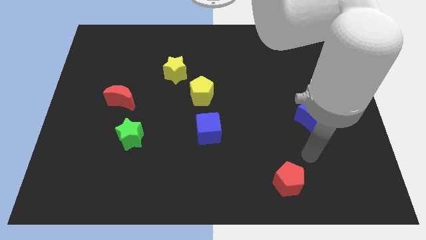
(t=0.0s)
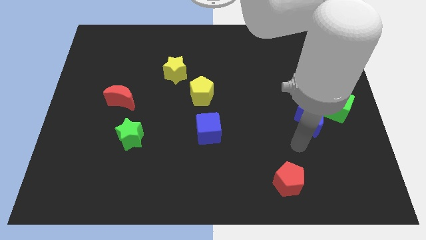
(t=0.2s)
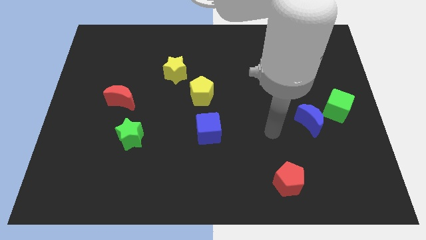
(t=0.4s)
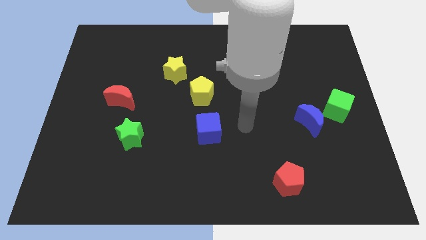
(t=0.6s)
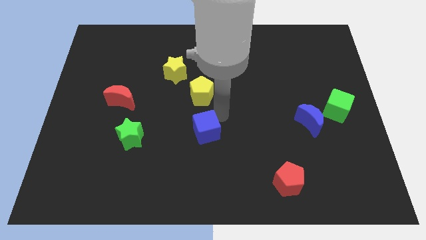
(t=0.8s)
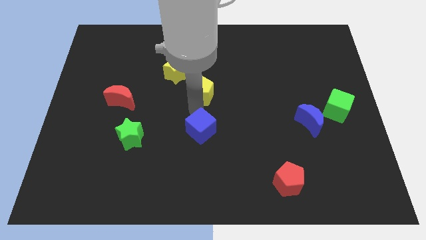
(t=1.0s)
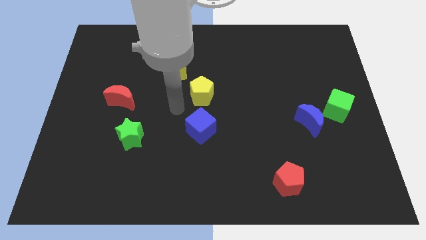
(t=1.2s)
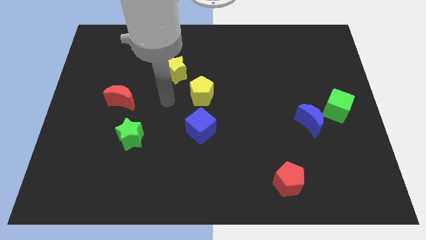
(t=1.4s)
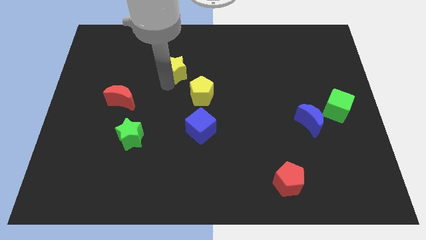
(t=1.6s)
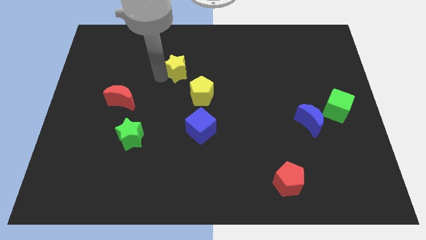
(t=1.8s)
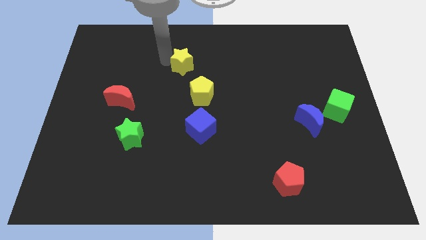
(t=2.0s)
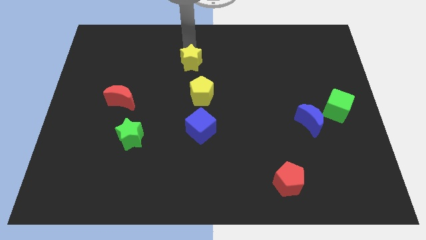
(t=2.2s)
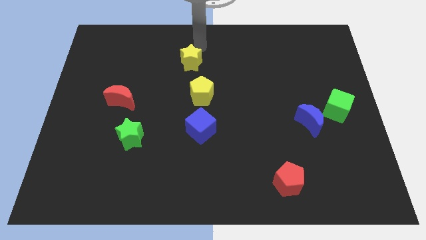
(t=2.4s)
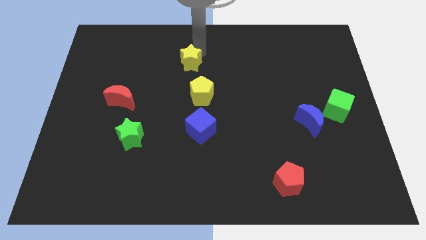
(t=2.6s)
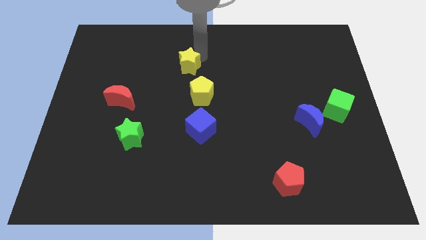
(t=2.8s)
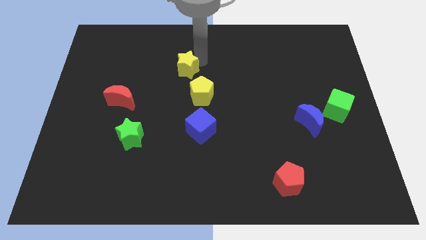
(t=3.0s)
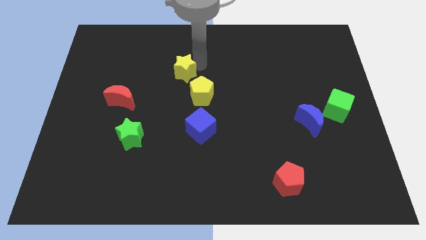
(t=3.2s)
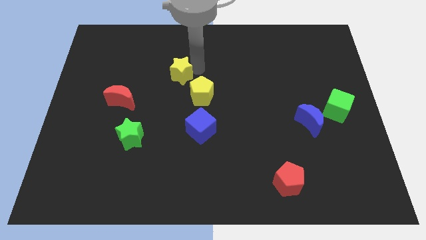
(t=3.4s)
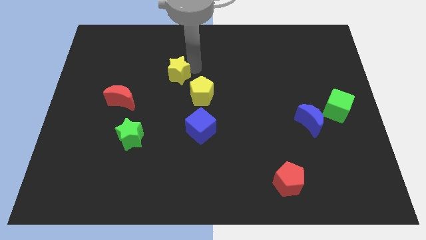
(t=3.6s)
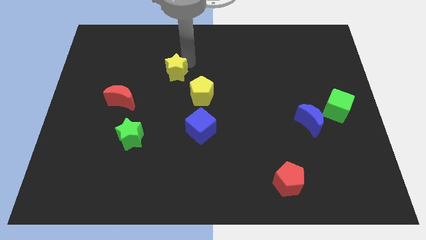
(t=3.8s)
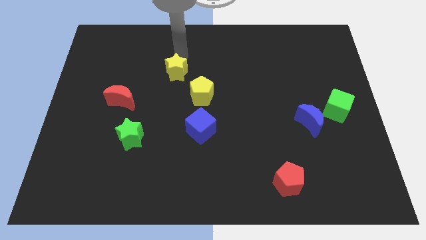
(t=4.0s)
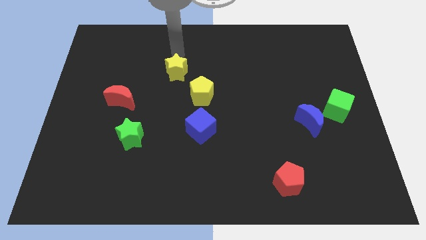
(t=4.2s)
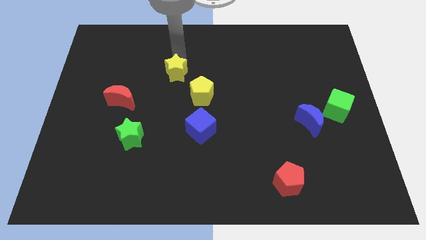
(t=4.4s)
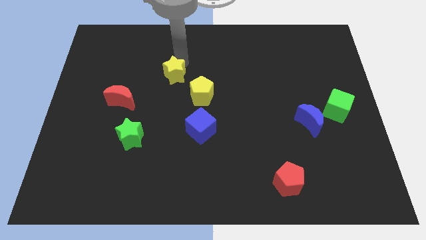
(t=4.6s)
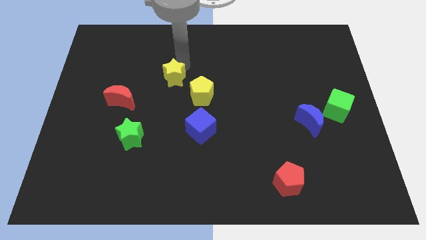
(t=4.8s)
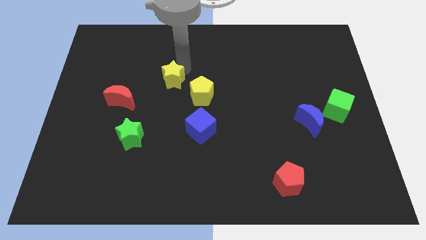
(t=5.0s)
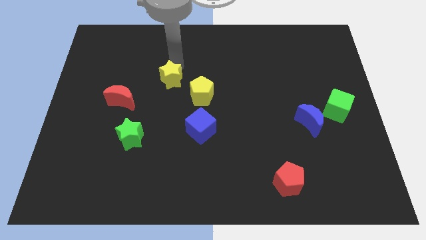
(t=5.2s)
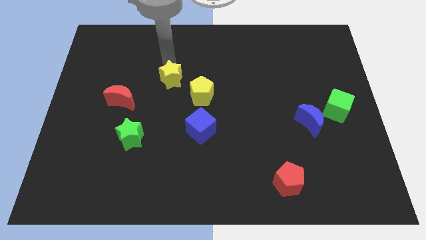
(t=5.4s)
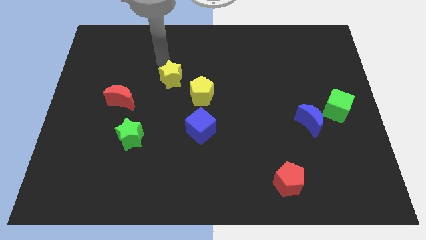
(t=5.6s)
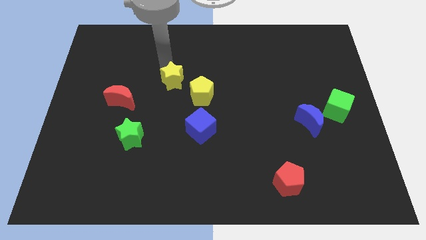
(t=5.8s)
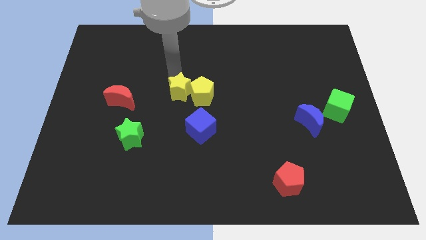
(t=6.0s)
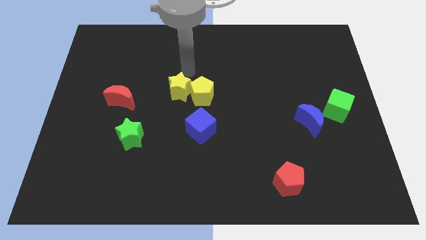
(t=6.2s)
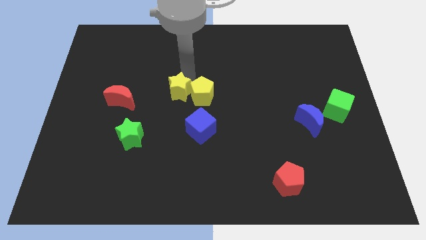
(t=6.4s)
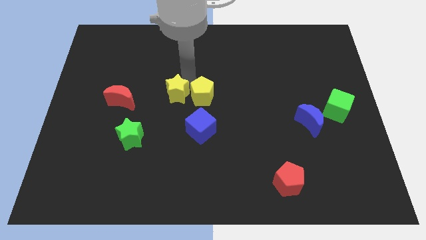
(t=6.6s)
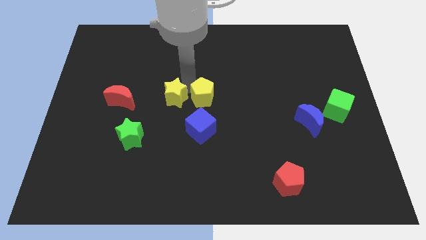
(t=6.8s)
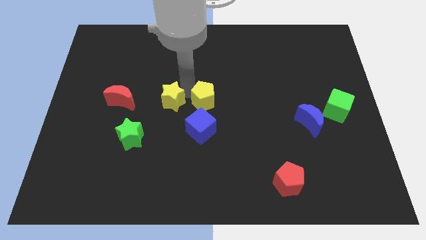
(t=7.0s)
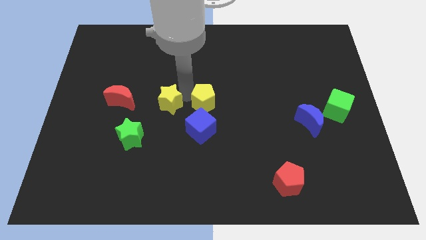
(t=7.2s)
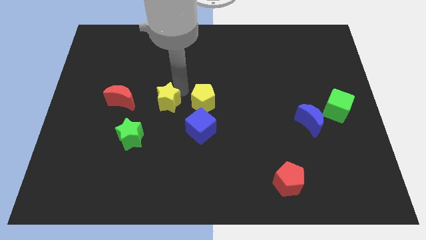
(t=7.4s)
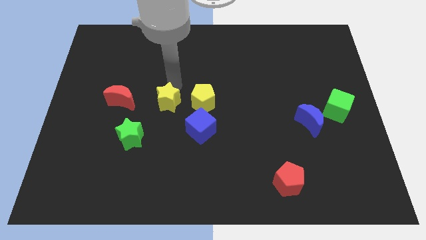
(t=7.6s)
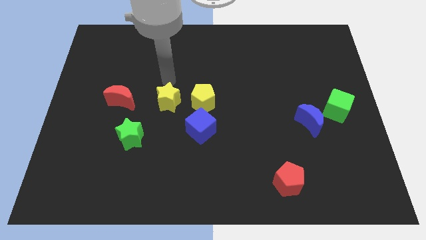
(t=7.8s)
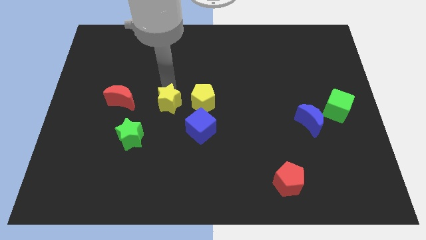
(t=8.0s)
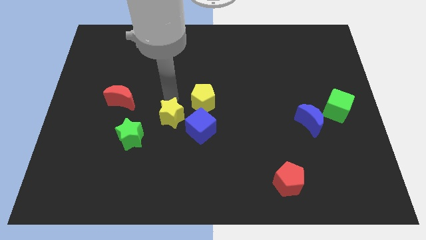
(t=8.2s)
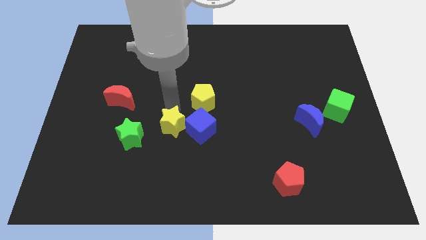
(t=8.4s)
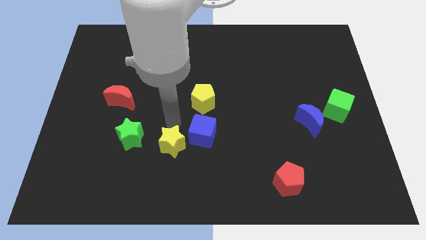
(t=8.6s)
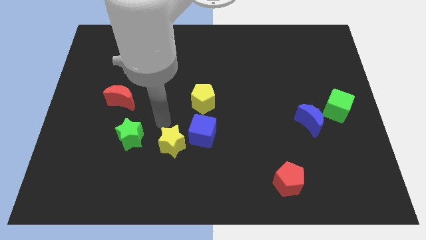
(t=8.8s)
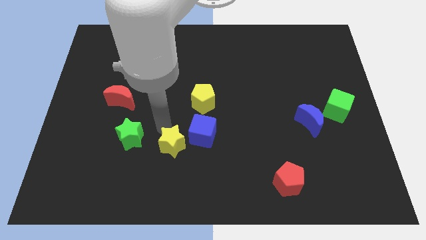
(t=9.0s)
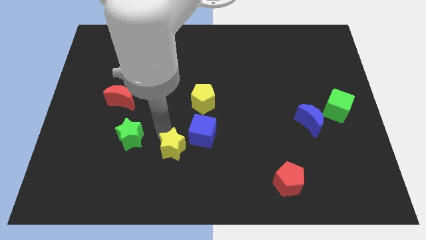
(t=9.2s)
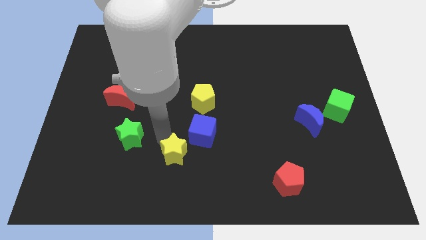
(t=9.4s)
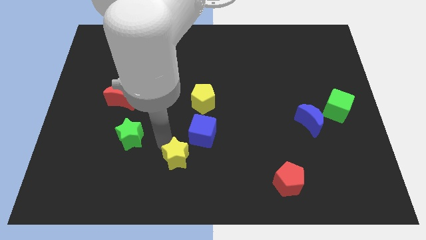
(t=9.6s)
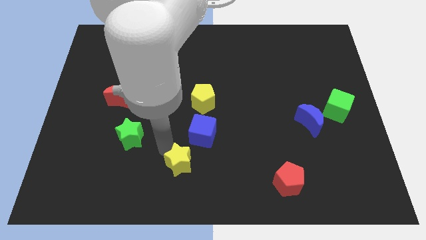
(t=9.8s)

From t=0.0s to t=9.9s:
move the yellow star to the bottom side

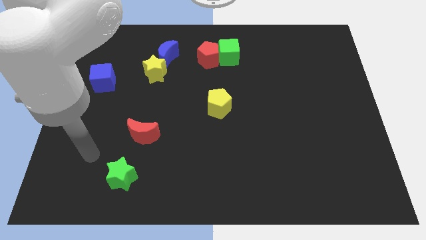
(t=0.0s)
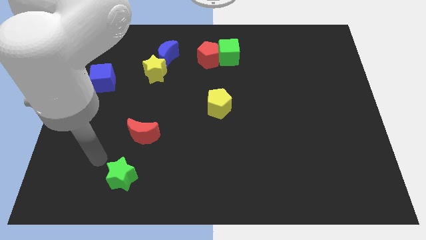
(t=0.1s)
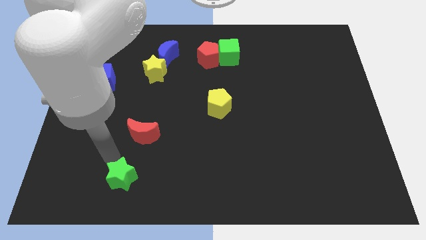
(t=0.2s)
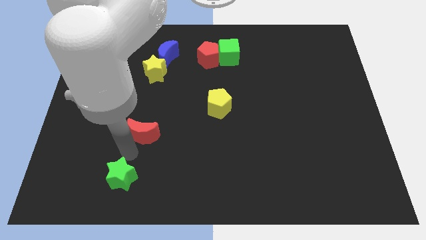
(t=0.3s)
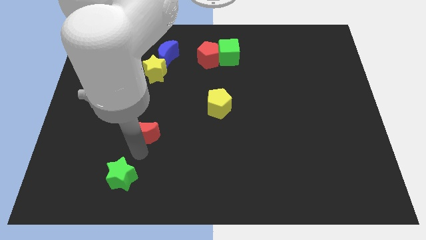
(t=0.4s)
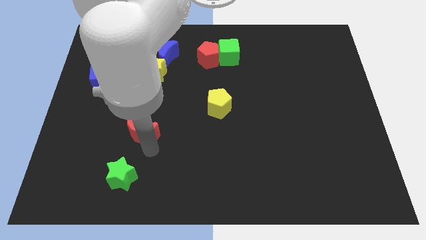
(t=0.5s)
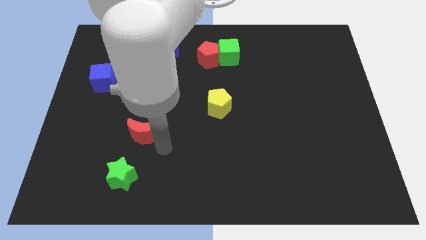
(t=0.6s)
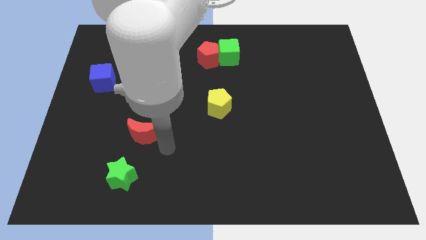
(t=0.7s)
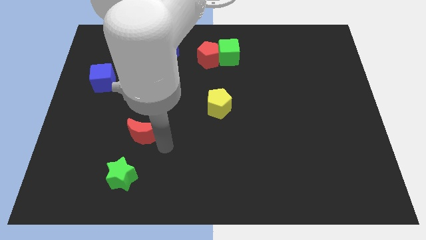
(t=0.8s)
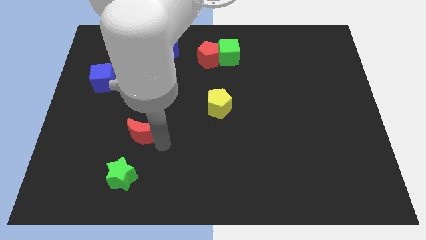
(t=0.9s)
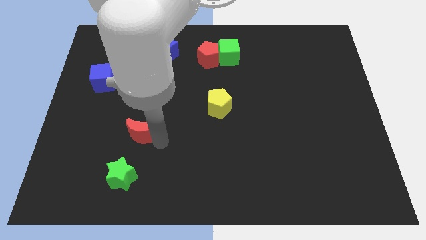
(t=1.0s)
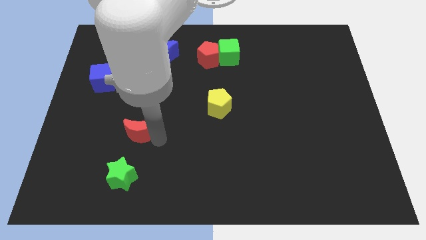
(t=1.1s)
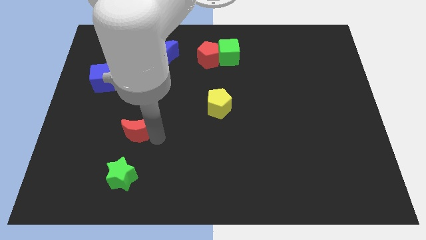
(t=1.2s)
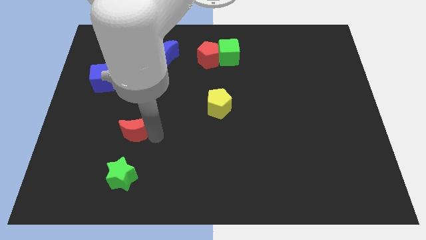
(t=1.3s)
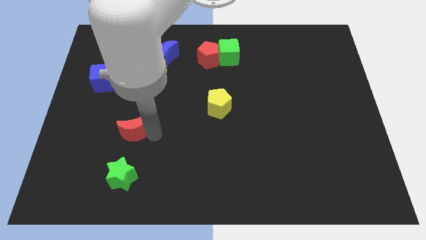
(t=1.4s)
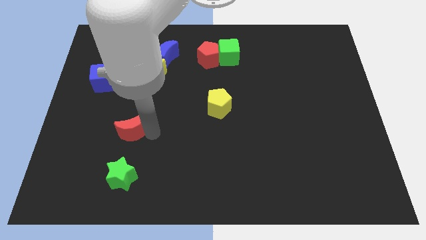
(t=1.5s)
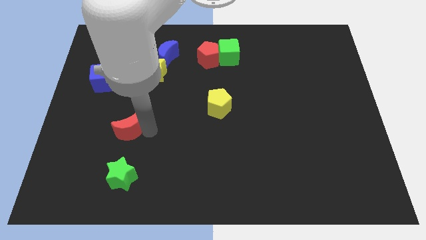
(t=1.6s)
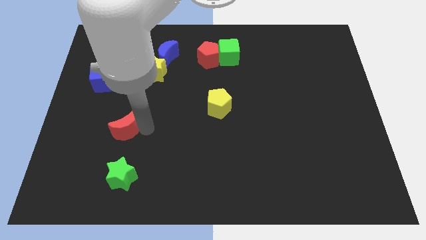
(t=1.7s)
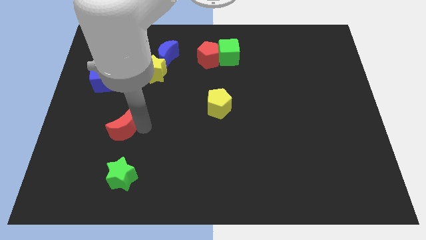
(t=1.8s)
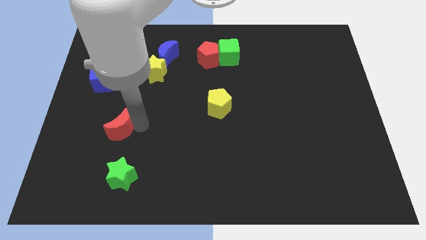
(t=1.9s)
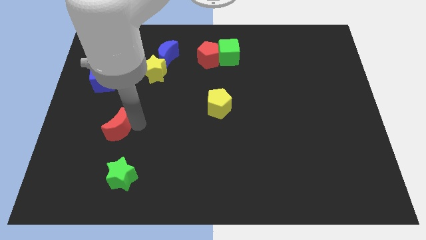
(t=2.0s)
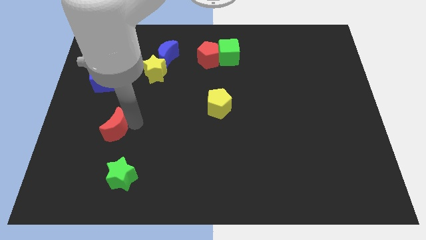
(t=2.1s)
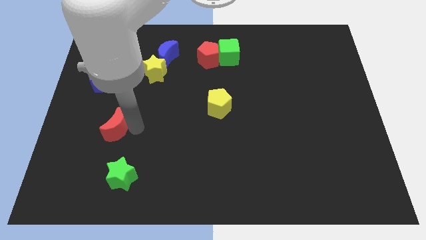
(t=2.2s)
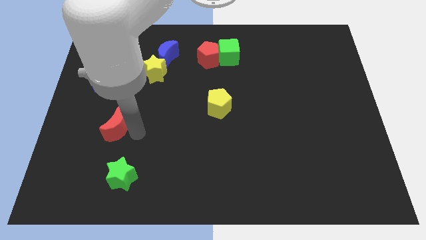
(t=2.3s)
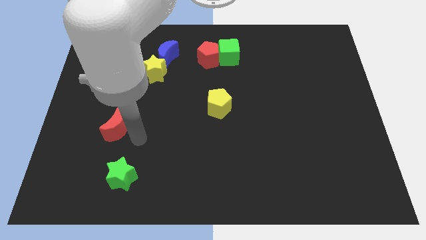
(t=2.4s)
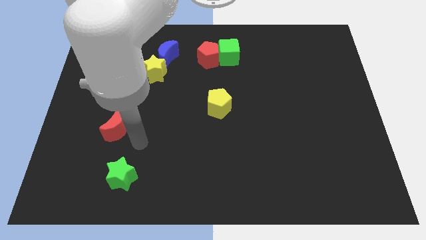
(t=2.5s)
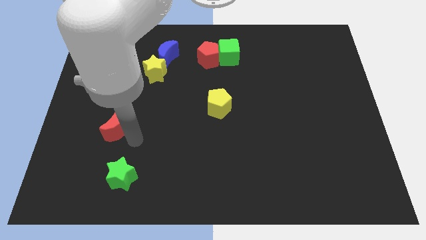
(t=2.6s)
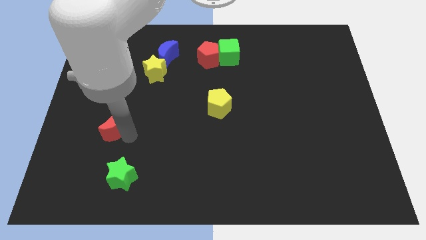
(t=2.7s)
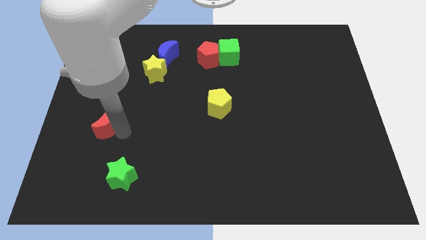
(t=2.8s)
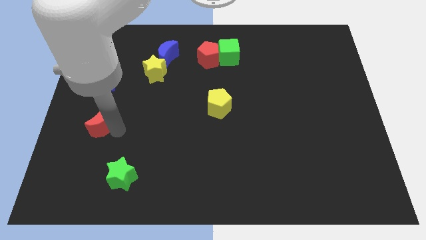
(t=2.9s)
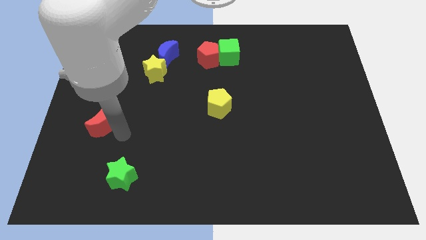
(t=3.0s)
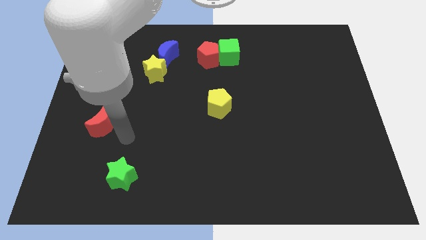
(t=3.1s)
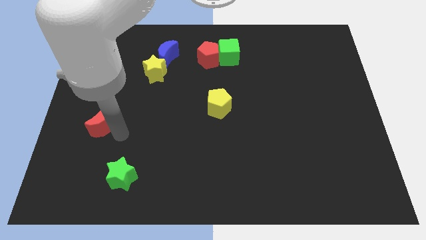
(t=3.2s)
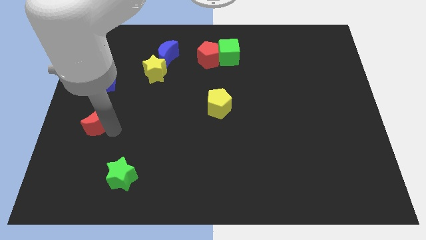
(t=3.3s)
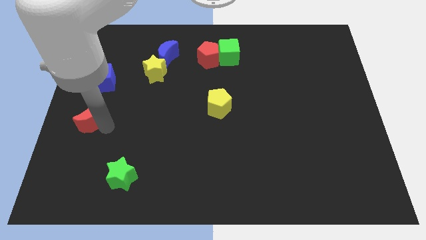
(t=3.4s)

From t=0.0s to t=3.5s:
slide the red moon to the left side
